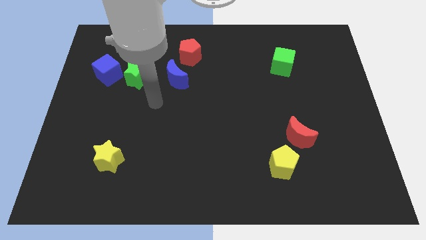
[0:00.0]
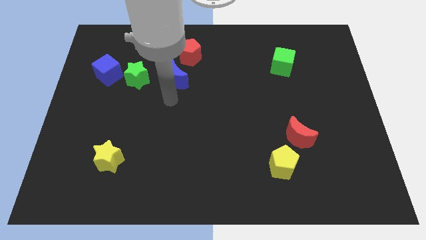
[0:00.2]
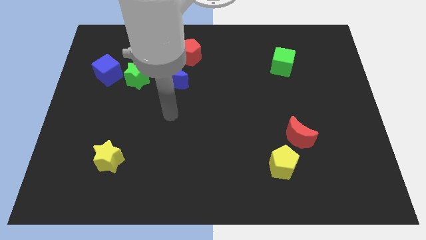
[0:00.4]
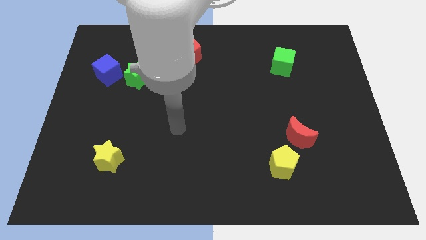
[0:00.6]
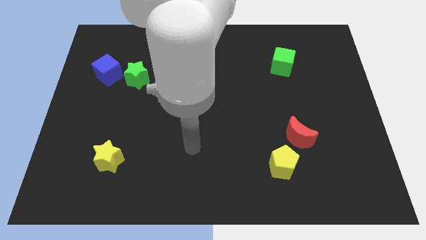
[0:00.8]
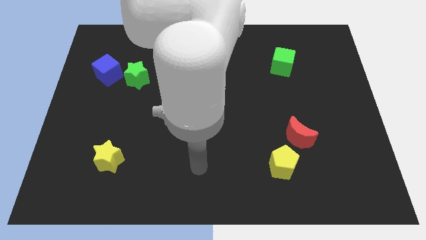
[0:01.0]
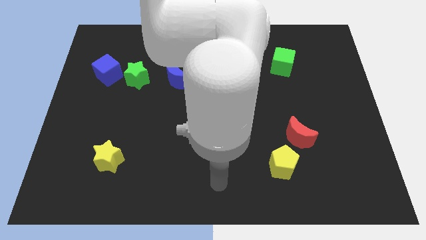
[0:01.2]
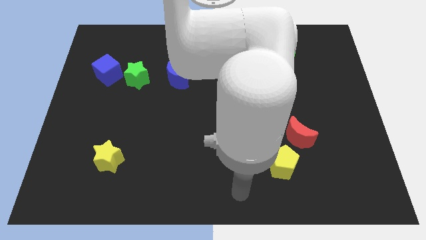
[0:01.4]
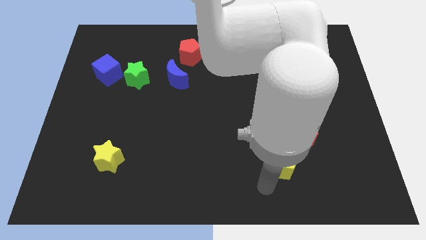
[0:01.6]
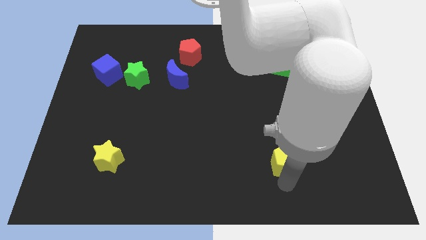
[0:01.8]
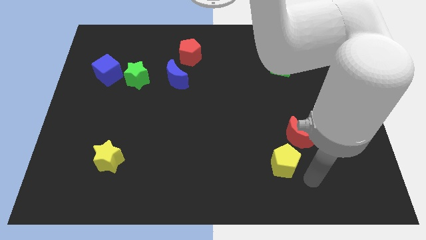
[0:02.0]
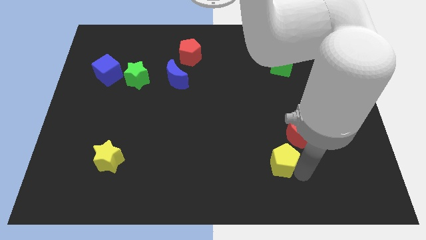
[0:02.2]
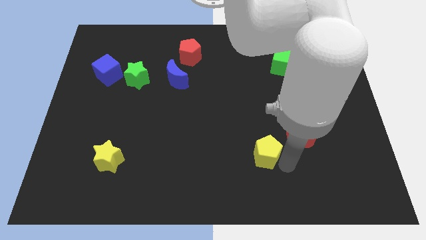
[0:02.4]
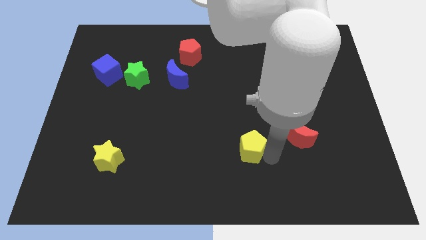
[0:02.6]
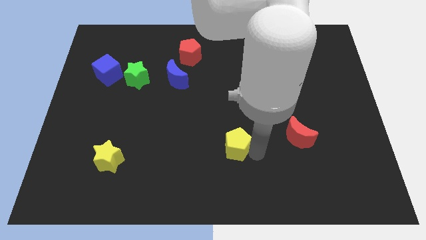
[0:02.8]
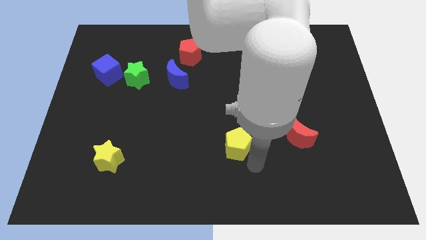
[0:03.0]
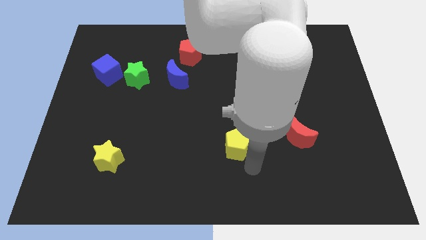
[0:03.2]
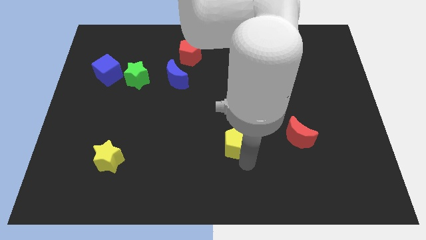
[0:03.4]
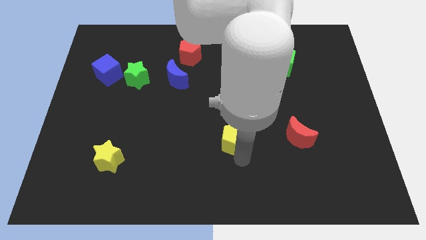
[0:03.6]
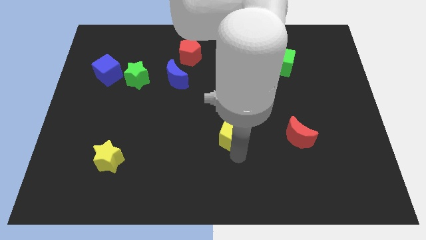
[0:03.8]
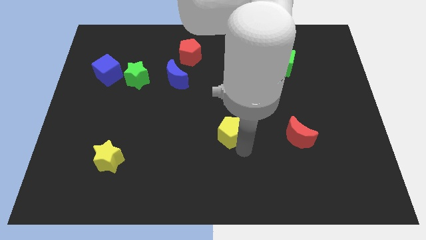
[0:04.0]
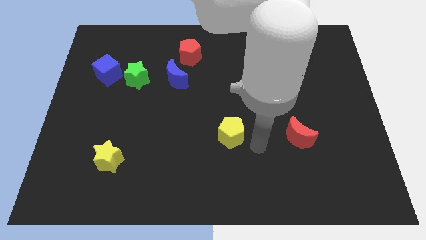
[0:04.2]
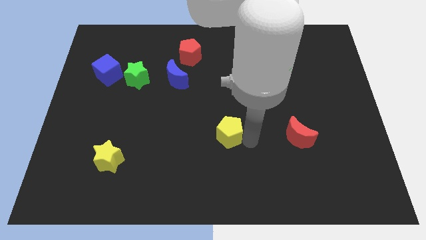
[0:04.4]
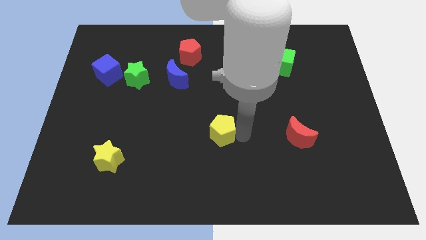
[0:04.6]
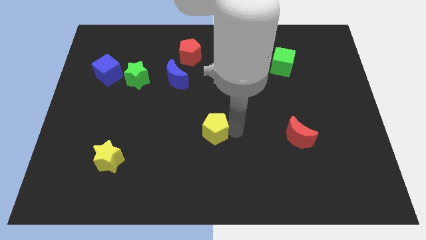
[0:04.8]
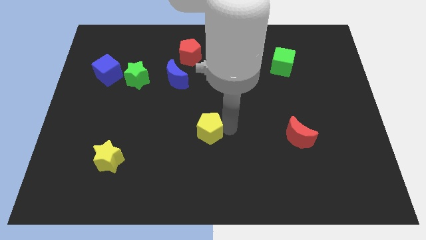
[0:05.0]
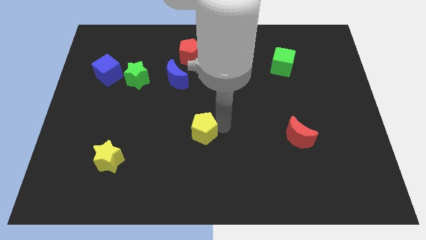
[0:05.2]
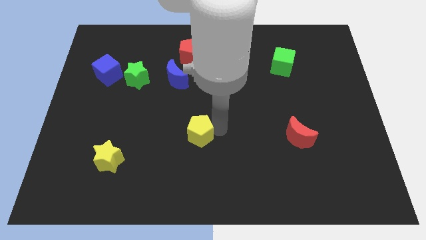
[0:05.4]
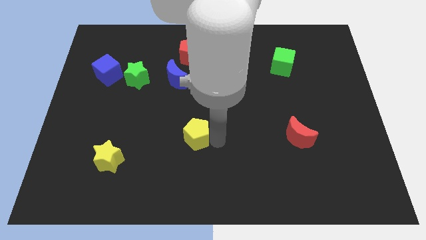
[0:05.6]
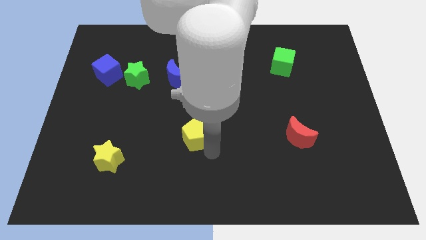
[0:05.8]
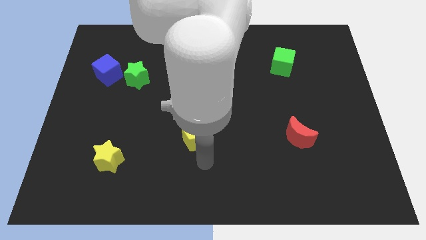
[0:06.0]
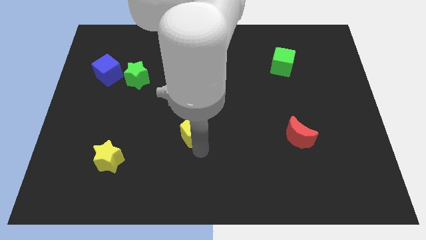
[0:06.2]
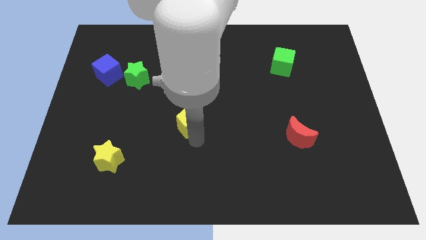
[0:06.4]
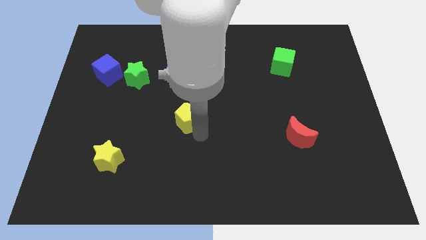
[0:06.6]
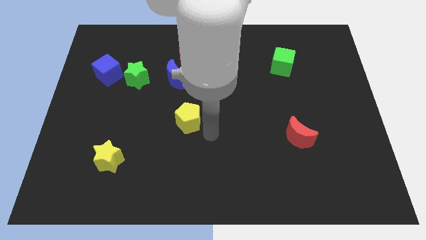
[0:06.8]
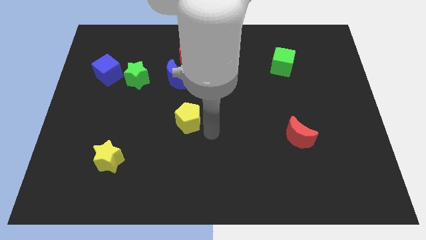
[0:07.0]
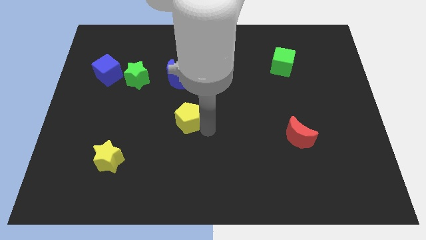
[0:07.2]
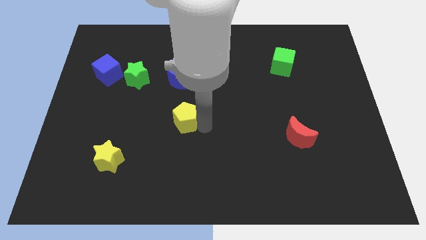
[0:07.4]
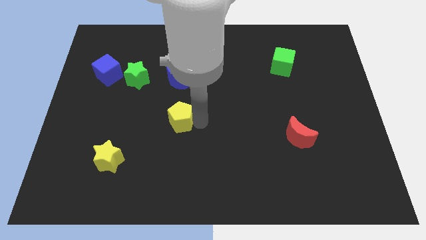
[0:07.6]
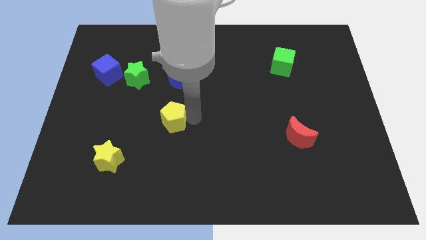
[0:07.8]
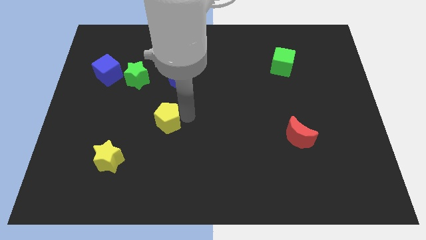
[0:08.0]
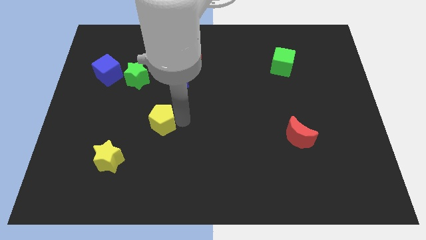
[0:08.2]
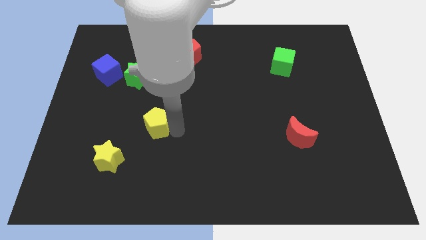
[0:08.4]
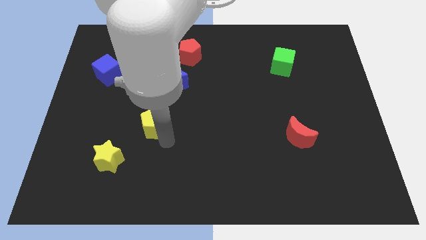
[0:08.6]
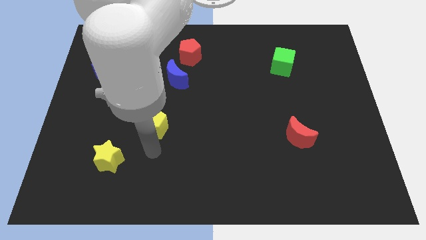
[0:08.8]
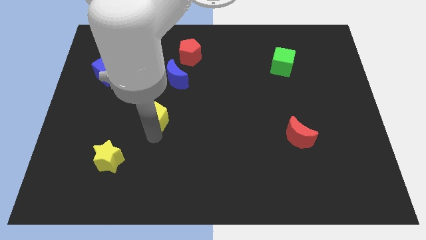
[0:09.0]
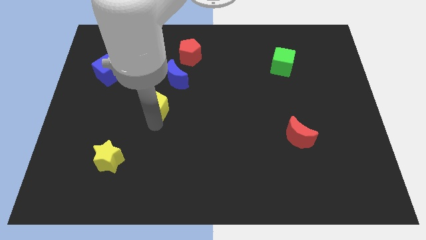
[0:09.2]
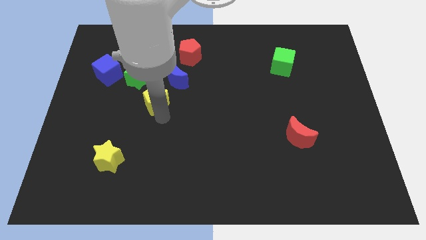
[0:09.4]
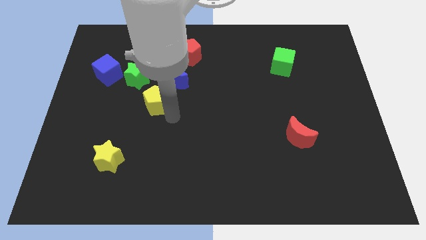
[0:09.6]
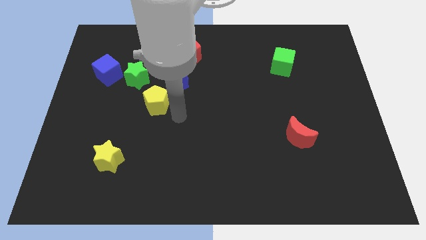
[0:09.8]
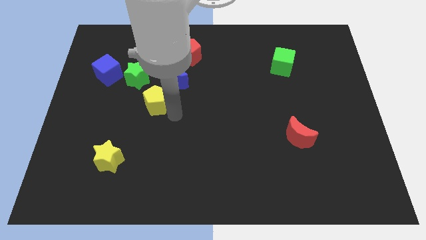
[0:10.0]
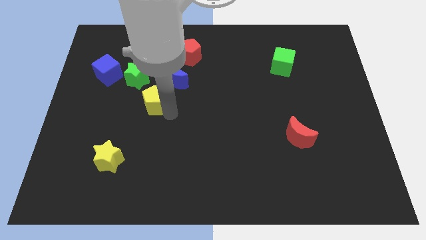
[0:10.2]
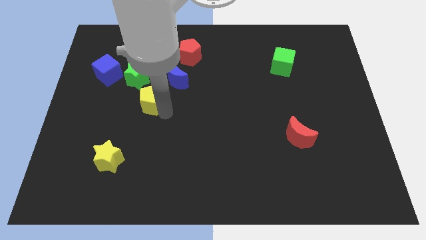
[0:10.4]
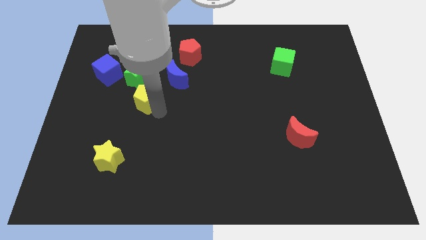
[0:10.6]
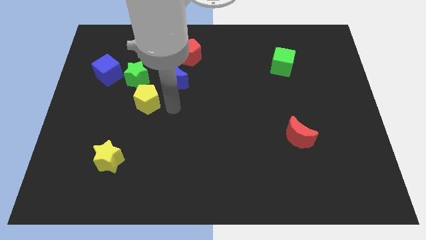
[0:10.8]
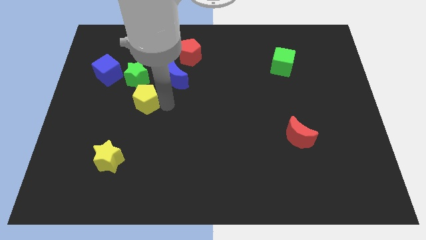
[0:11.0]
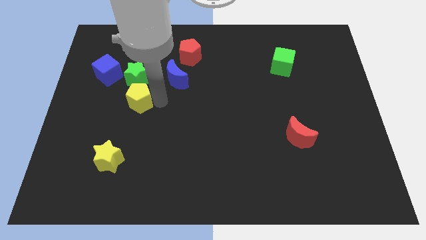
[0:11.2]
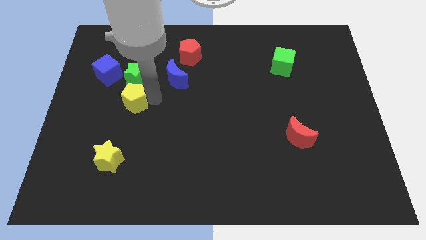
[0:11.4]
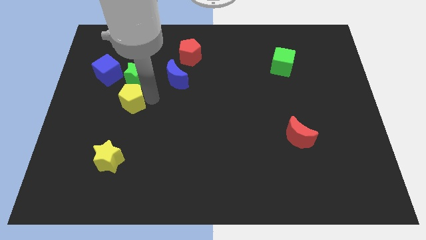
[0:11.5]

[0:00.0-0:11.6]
move the yellow pentagon diagonally down and to the left of the green star

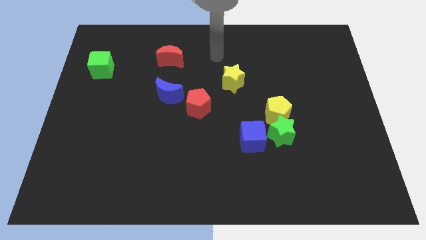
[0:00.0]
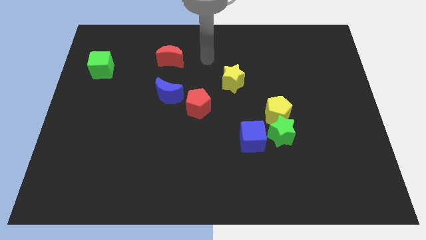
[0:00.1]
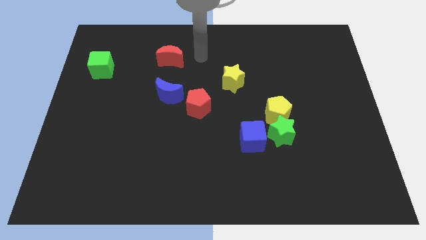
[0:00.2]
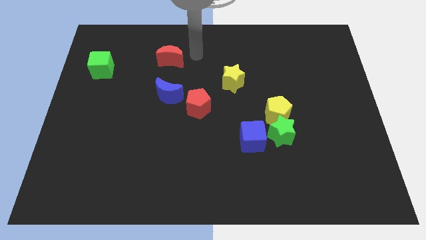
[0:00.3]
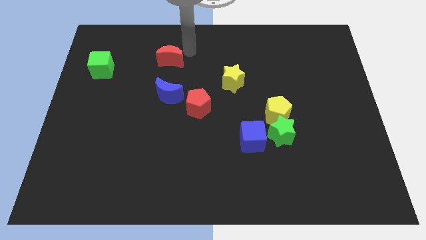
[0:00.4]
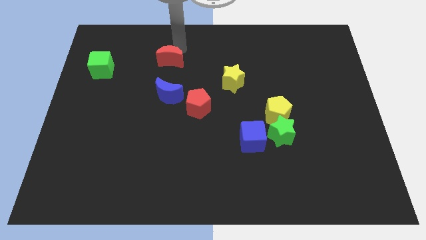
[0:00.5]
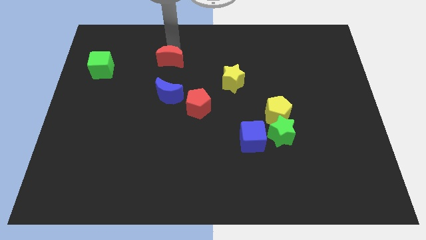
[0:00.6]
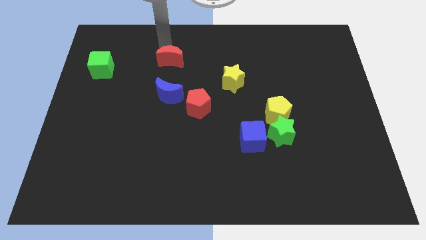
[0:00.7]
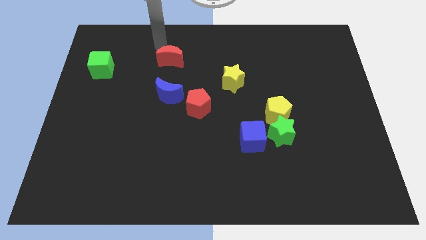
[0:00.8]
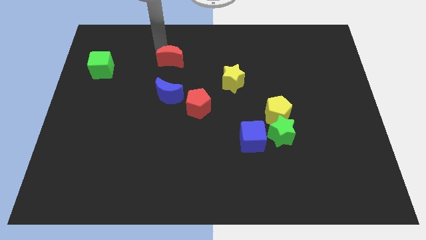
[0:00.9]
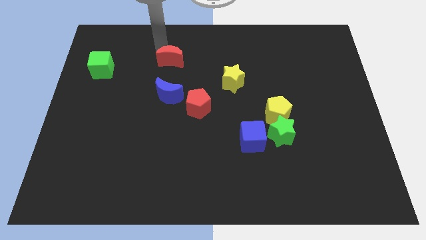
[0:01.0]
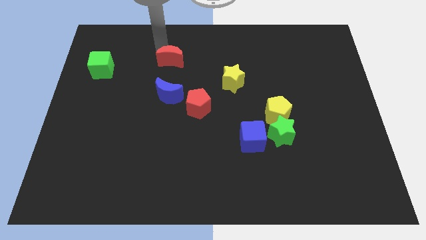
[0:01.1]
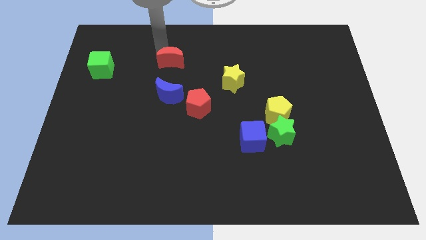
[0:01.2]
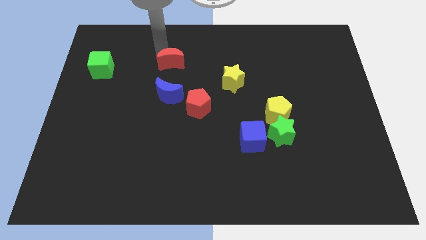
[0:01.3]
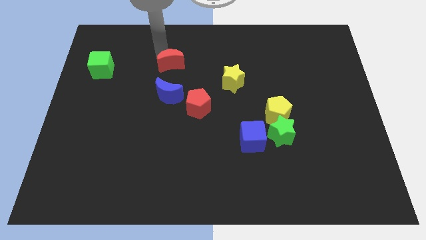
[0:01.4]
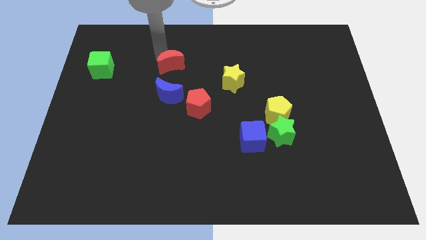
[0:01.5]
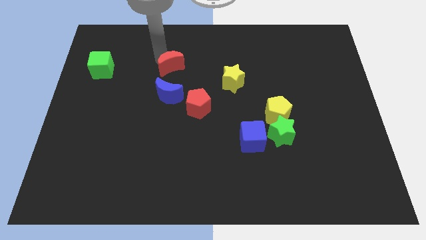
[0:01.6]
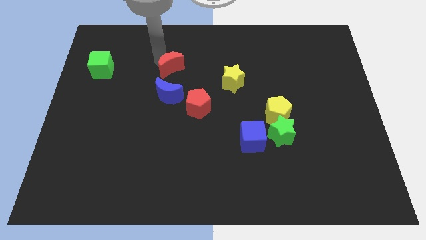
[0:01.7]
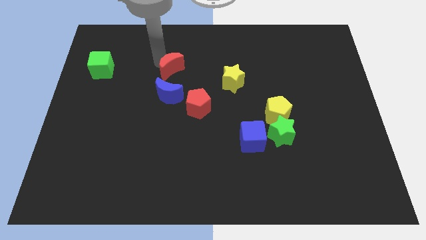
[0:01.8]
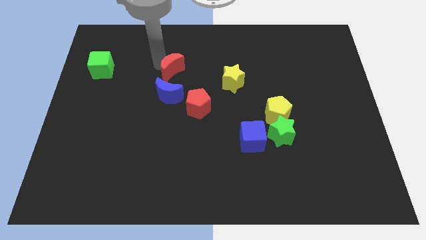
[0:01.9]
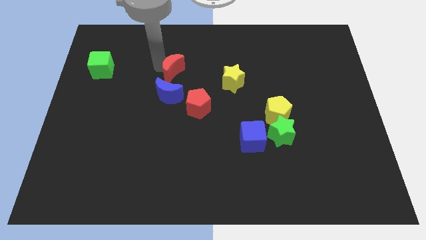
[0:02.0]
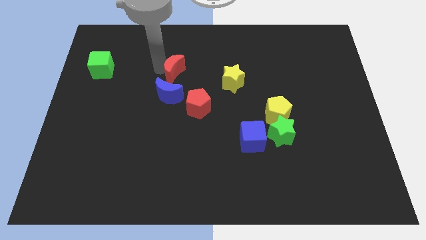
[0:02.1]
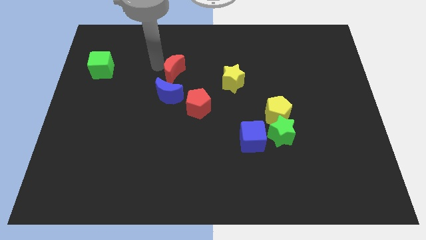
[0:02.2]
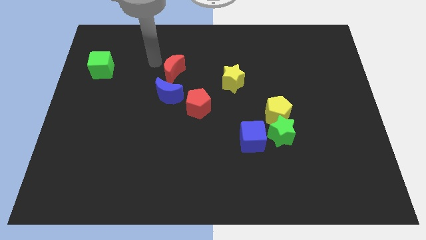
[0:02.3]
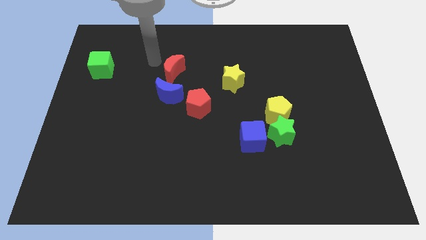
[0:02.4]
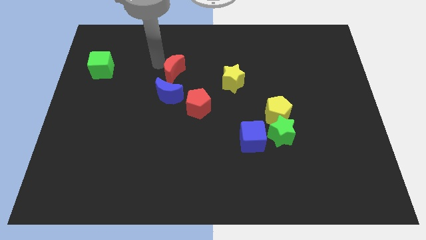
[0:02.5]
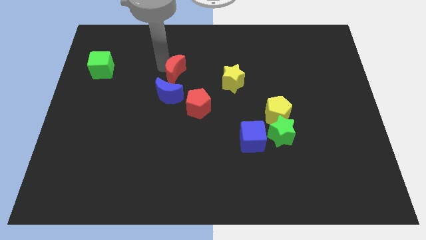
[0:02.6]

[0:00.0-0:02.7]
move the red moon just left of the yellow star
